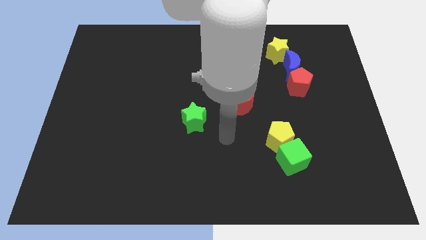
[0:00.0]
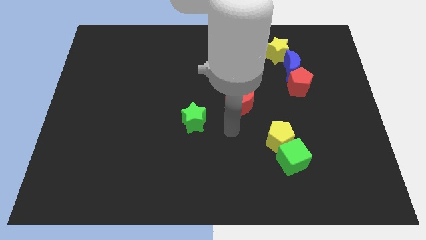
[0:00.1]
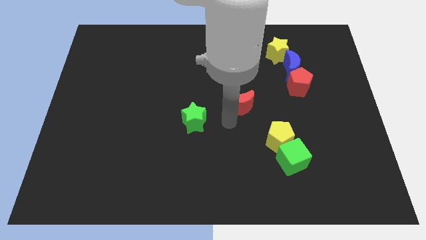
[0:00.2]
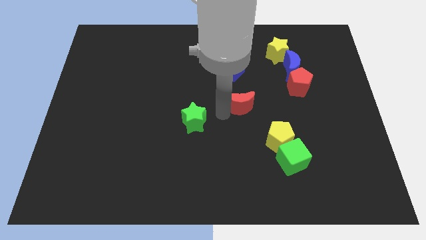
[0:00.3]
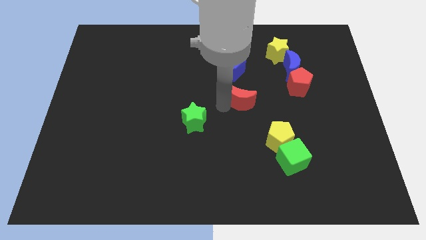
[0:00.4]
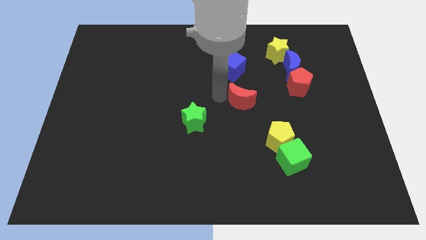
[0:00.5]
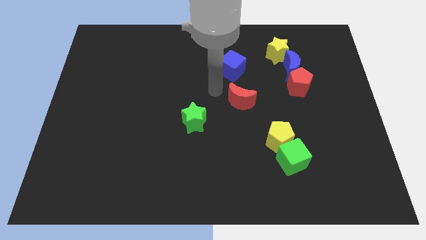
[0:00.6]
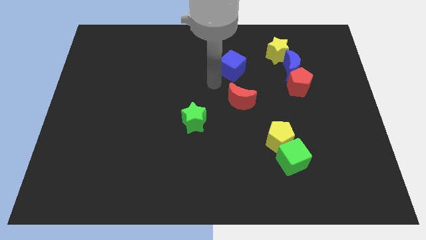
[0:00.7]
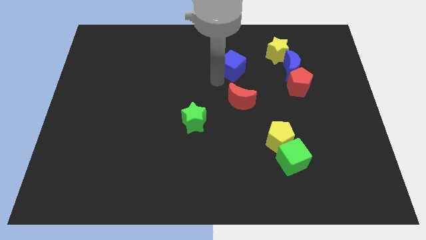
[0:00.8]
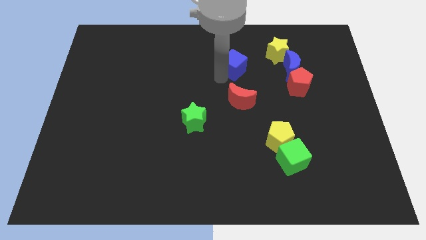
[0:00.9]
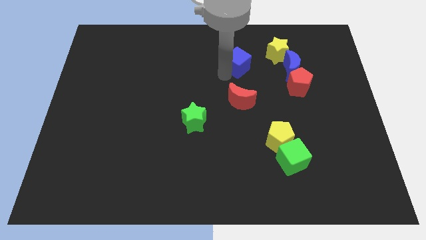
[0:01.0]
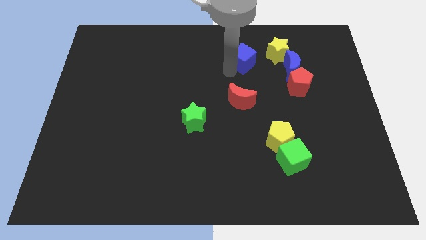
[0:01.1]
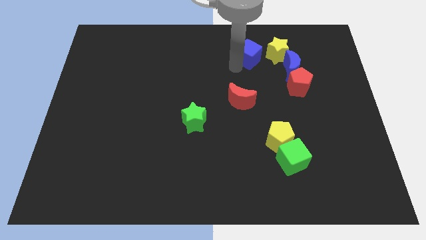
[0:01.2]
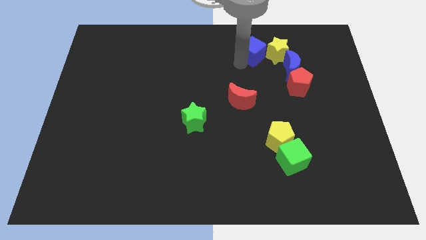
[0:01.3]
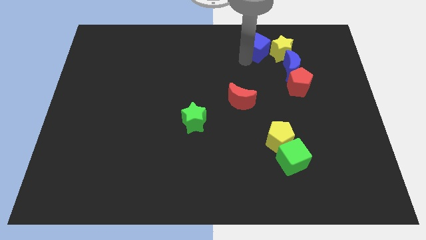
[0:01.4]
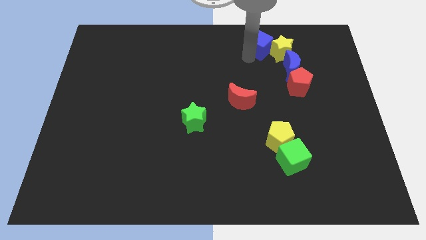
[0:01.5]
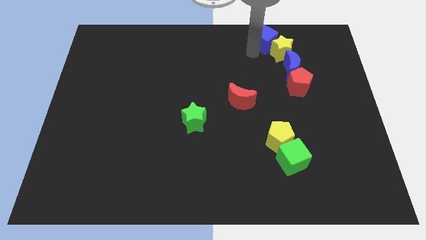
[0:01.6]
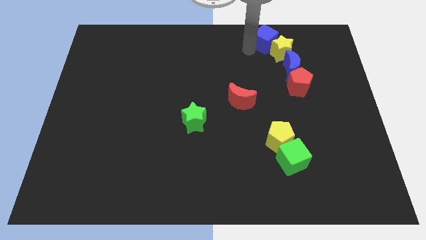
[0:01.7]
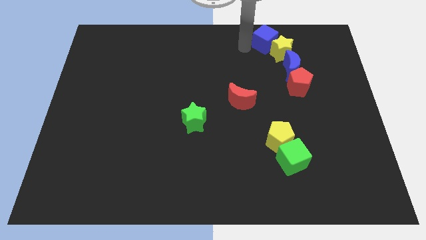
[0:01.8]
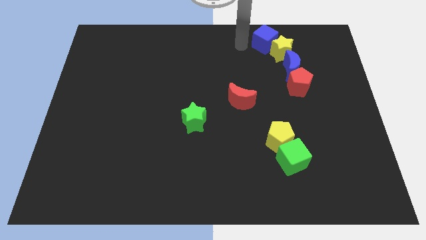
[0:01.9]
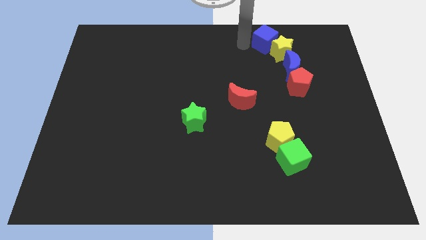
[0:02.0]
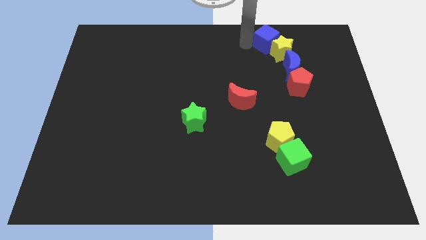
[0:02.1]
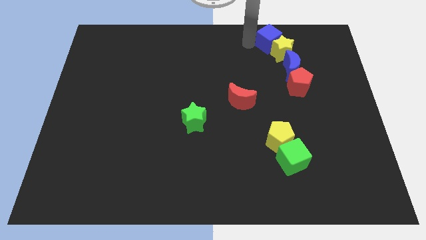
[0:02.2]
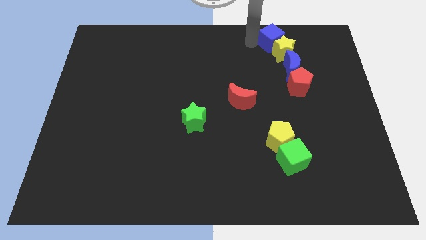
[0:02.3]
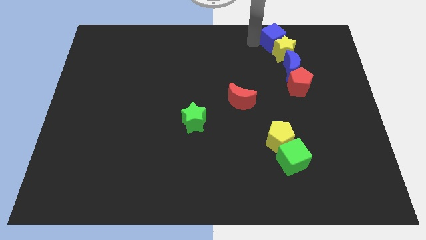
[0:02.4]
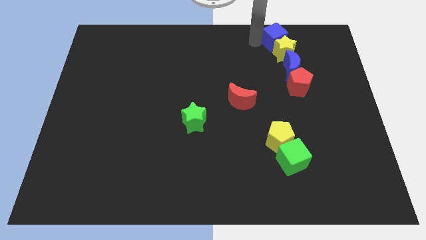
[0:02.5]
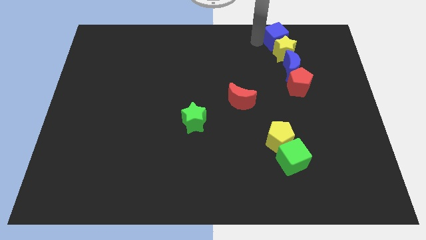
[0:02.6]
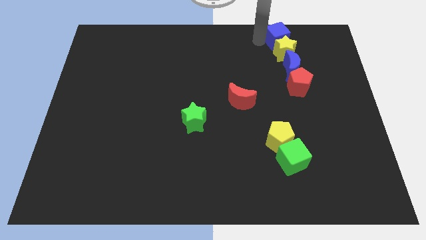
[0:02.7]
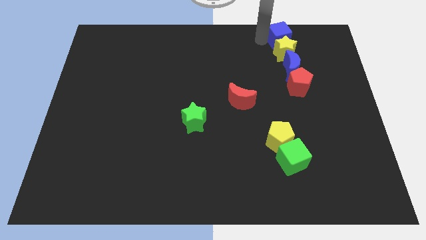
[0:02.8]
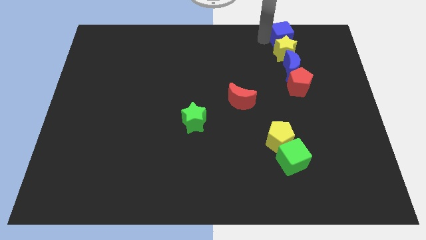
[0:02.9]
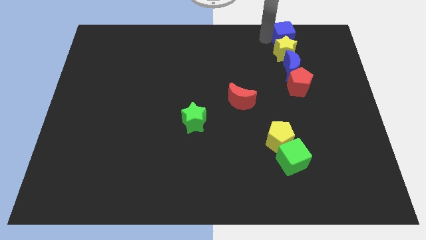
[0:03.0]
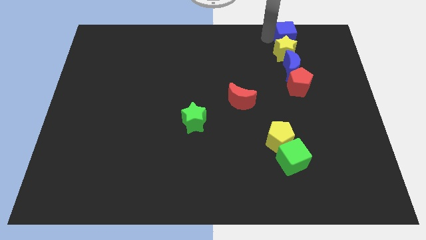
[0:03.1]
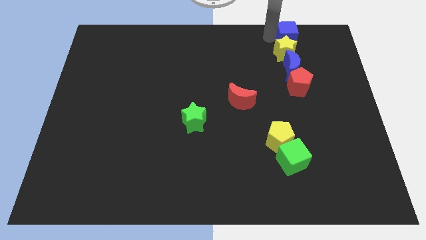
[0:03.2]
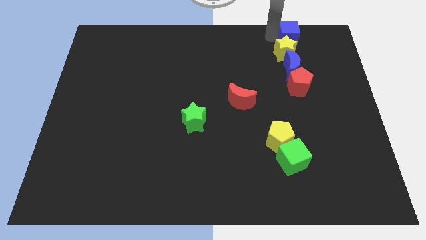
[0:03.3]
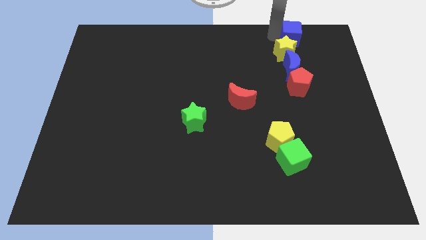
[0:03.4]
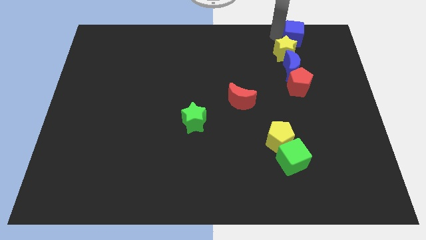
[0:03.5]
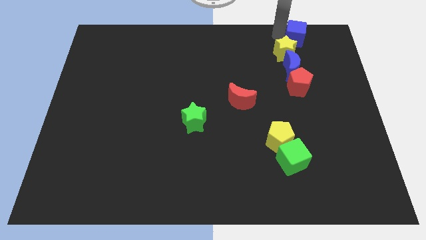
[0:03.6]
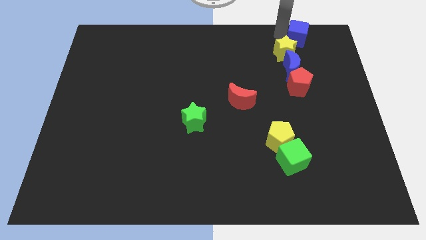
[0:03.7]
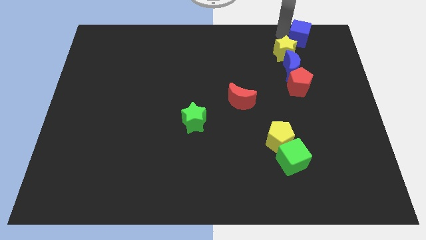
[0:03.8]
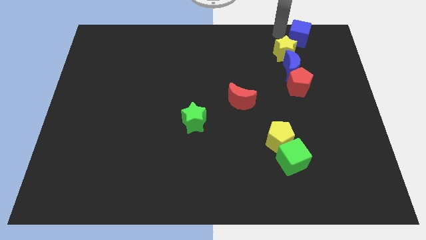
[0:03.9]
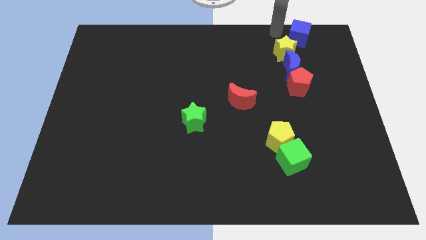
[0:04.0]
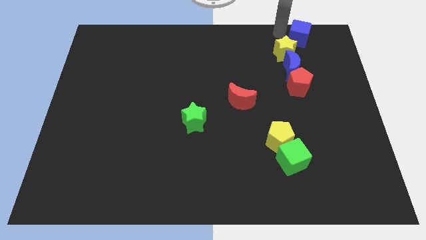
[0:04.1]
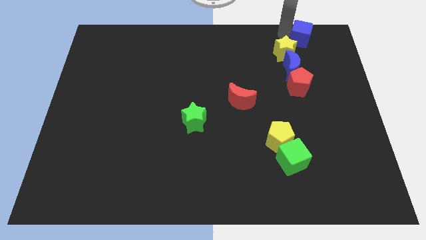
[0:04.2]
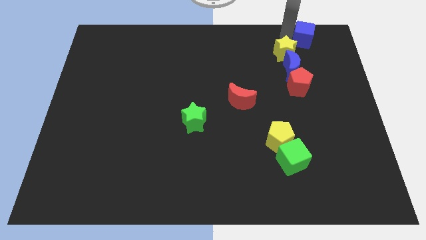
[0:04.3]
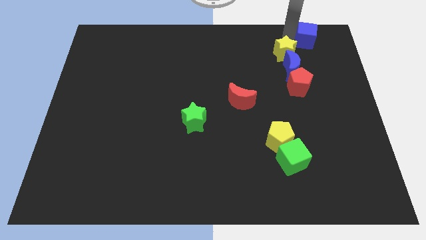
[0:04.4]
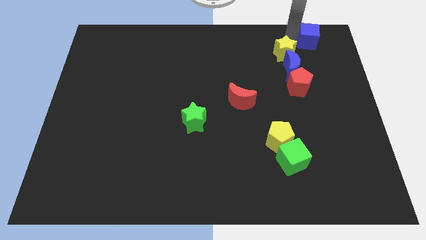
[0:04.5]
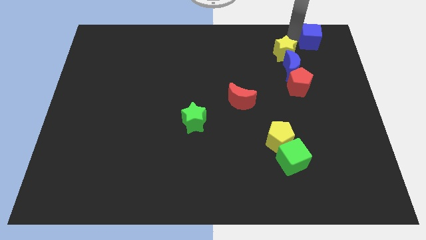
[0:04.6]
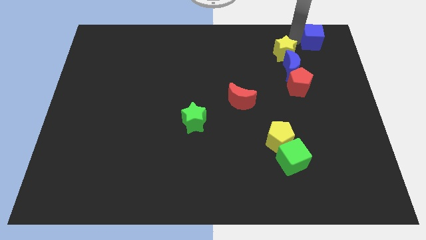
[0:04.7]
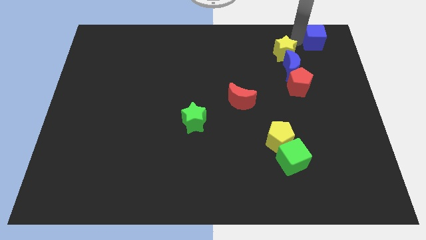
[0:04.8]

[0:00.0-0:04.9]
slide the blue cube to the top right of the board

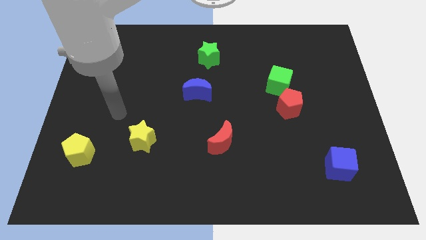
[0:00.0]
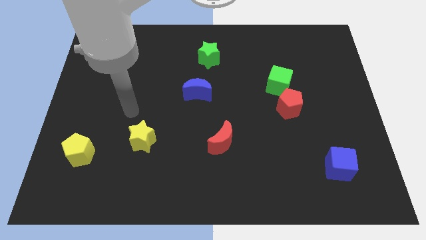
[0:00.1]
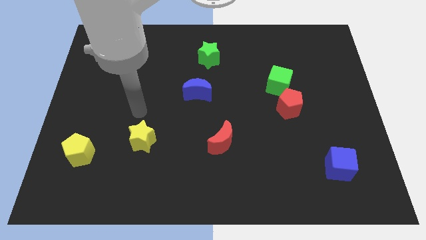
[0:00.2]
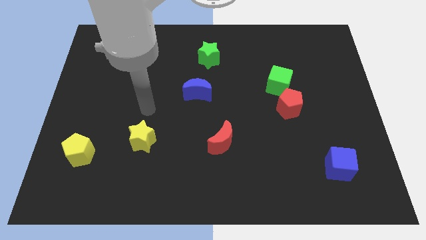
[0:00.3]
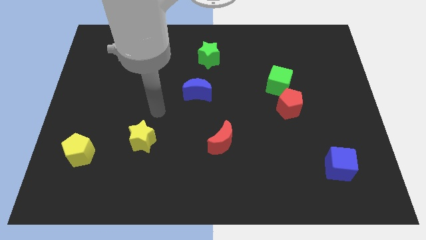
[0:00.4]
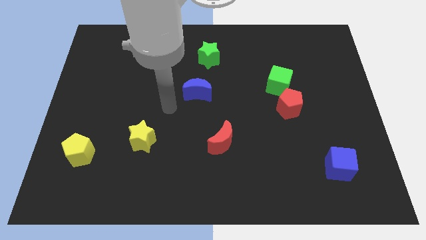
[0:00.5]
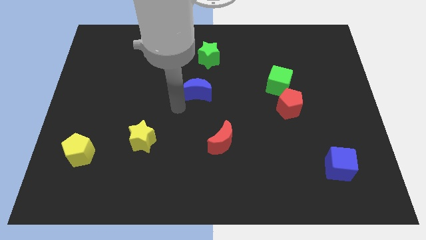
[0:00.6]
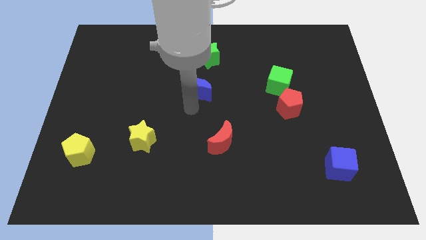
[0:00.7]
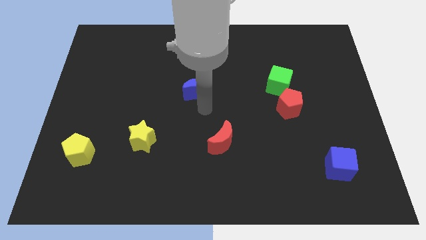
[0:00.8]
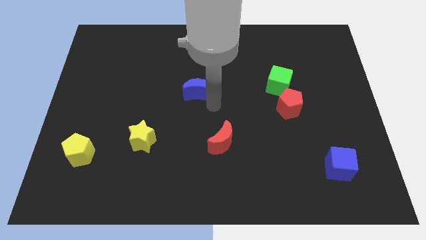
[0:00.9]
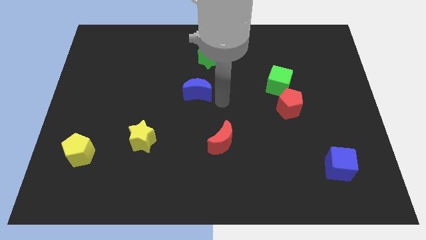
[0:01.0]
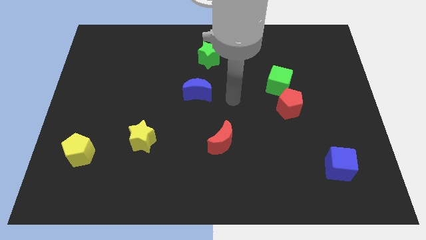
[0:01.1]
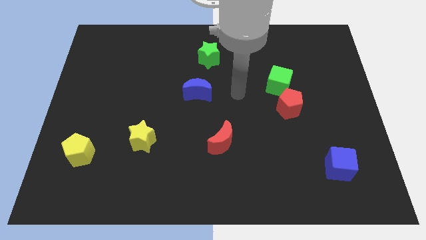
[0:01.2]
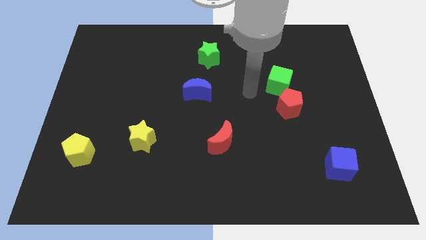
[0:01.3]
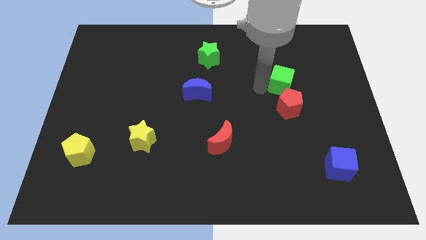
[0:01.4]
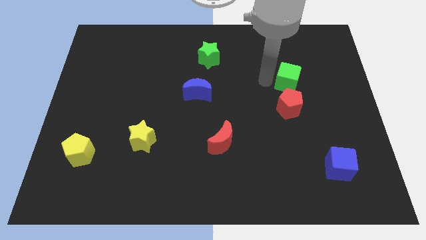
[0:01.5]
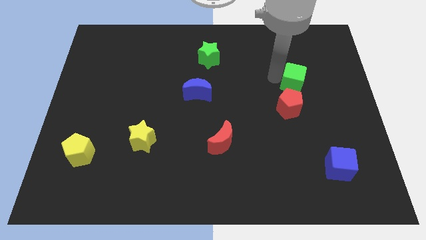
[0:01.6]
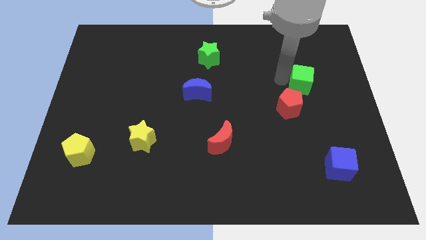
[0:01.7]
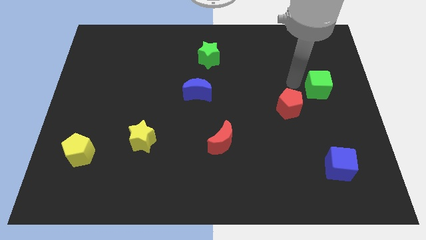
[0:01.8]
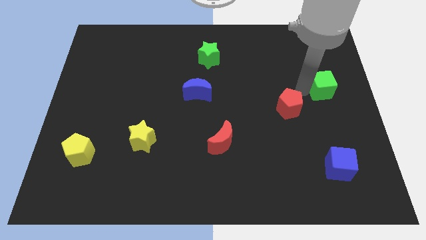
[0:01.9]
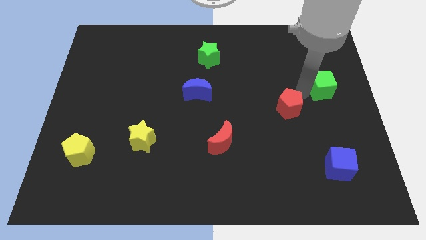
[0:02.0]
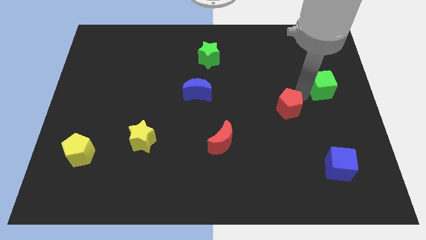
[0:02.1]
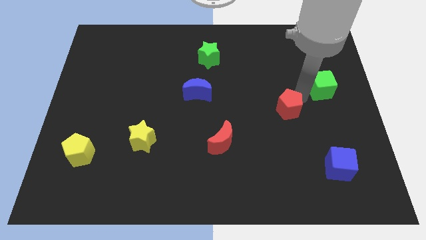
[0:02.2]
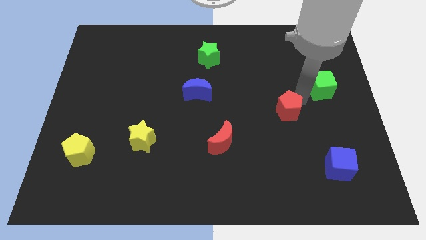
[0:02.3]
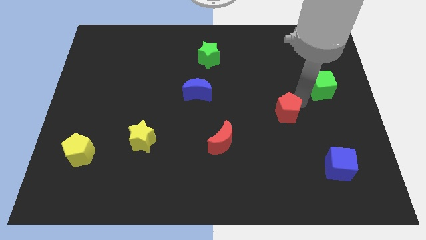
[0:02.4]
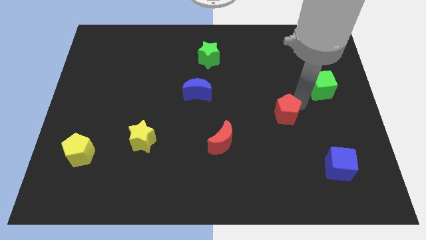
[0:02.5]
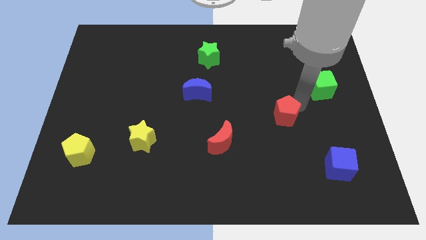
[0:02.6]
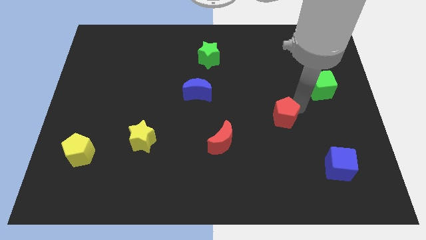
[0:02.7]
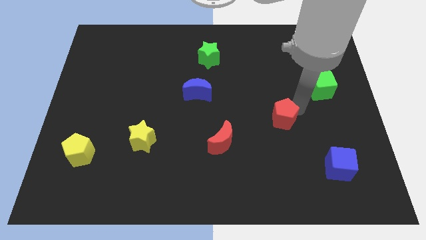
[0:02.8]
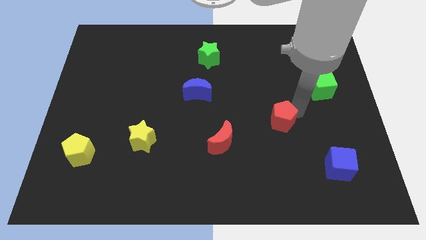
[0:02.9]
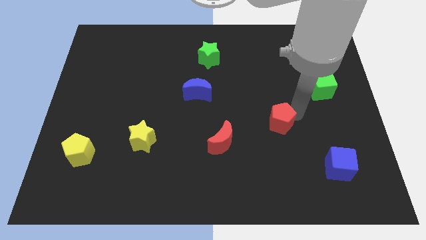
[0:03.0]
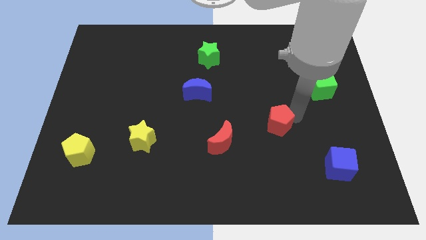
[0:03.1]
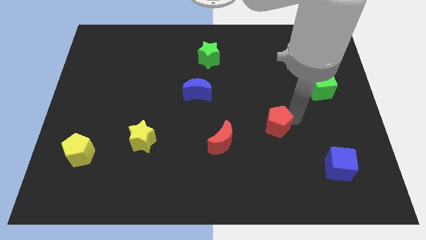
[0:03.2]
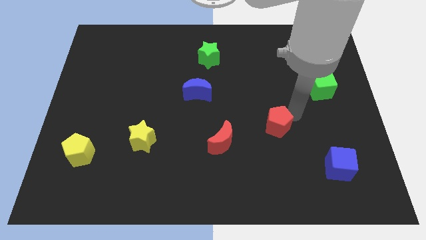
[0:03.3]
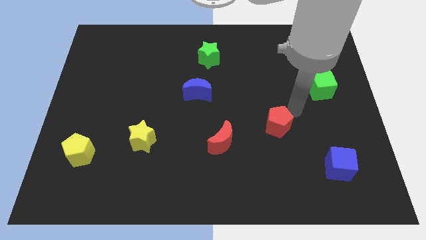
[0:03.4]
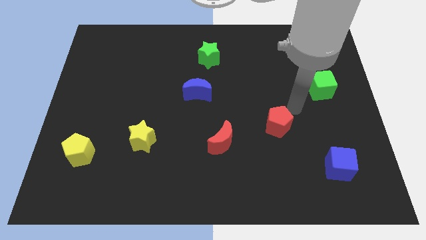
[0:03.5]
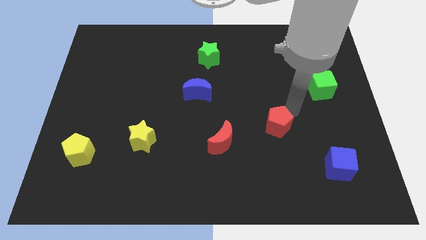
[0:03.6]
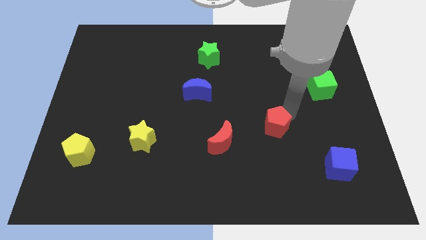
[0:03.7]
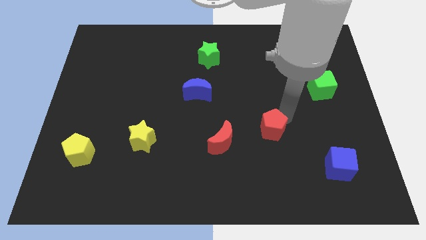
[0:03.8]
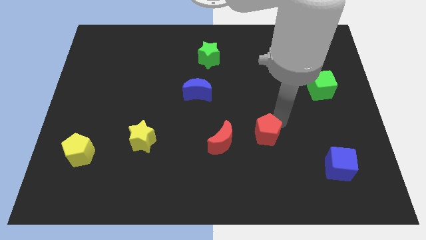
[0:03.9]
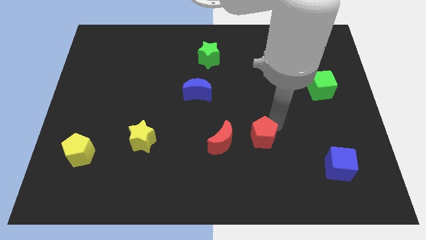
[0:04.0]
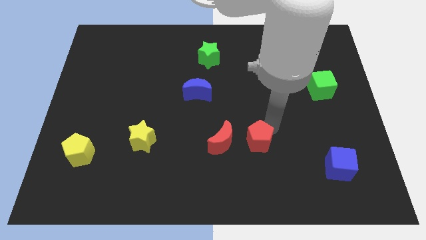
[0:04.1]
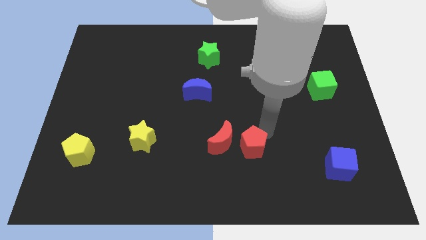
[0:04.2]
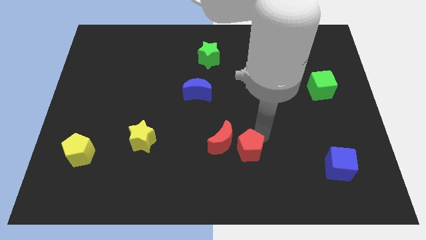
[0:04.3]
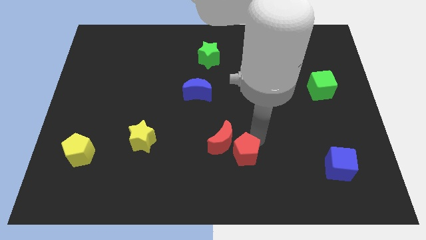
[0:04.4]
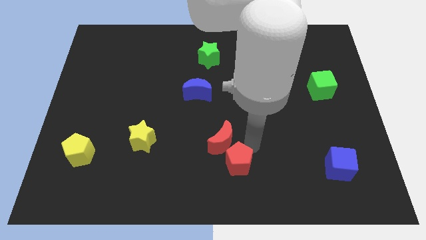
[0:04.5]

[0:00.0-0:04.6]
slide the red pentagon to the bottom
